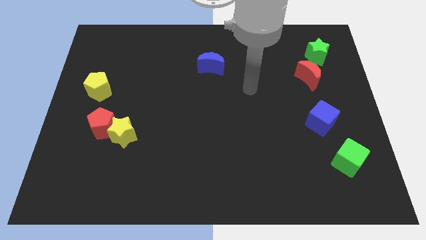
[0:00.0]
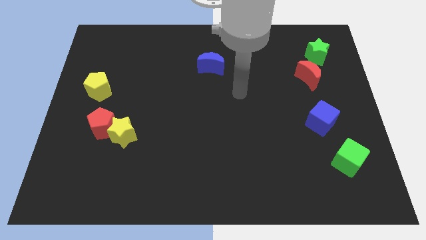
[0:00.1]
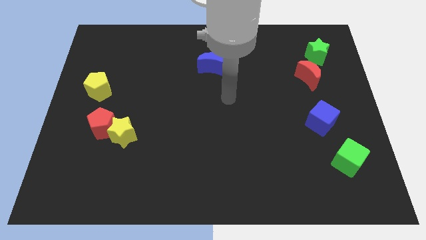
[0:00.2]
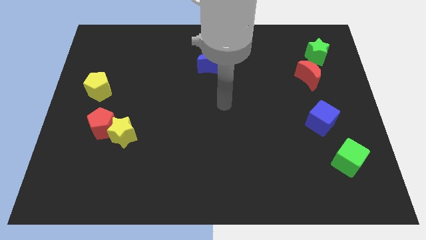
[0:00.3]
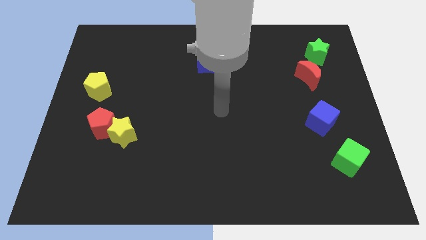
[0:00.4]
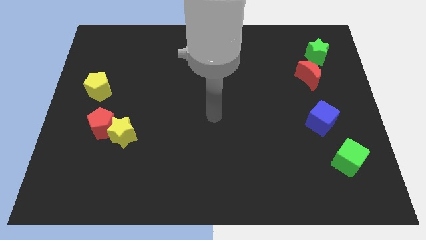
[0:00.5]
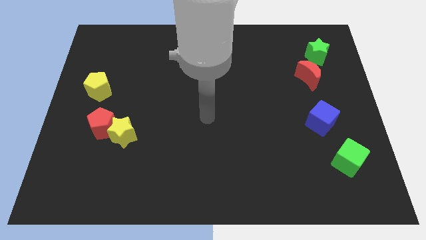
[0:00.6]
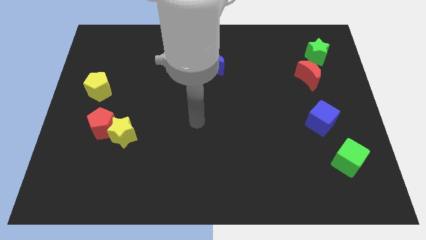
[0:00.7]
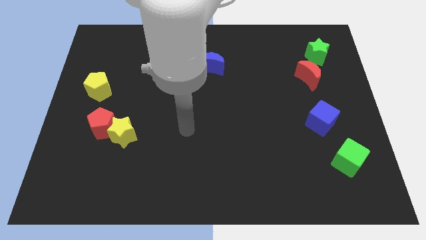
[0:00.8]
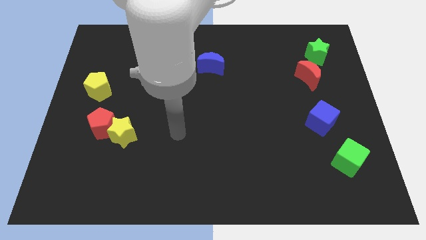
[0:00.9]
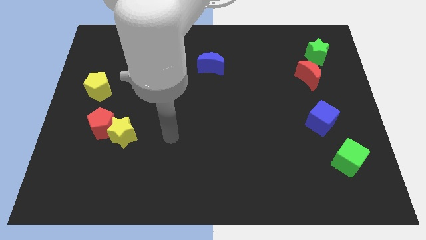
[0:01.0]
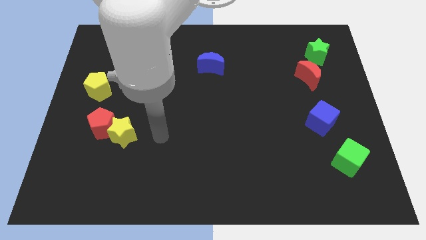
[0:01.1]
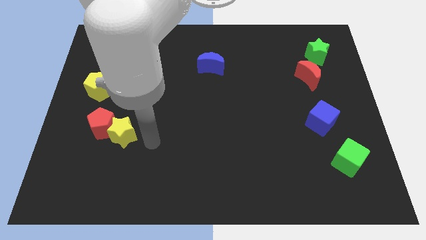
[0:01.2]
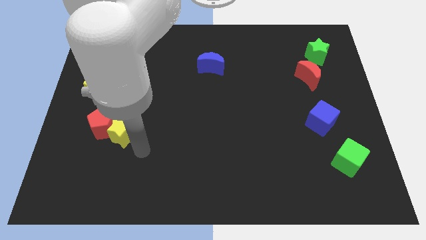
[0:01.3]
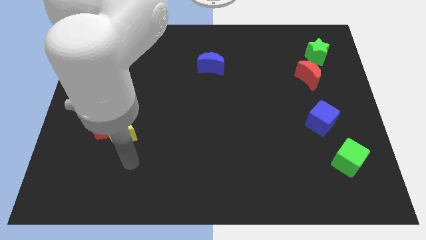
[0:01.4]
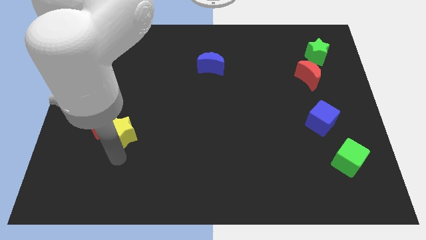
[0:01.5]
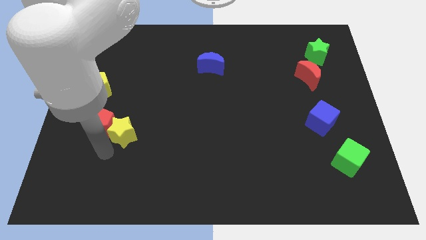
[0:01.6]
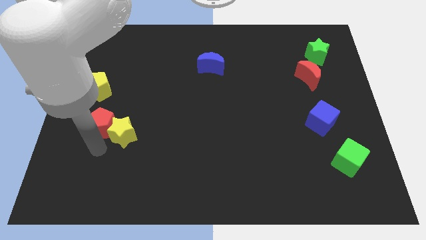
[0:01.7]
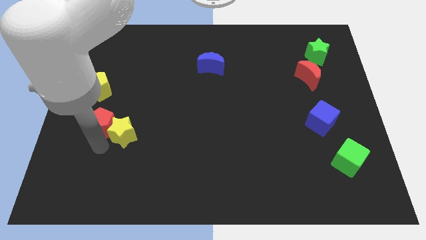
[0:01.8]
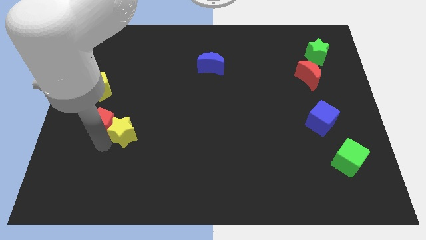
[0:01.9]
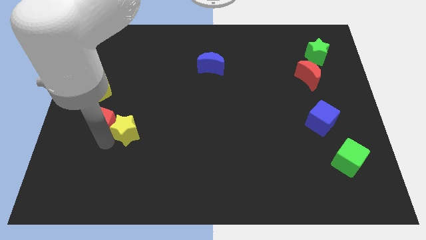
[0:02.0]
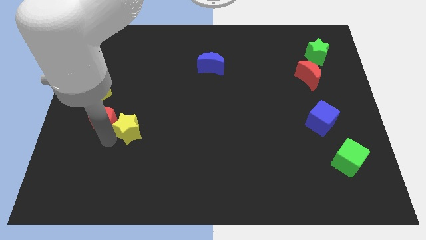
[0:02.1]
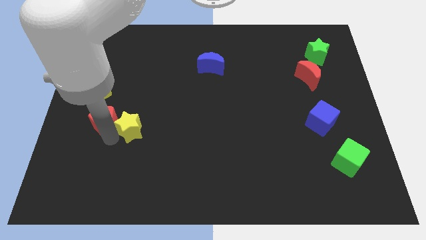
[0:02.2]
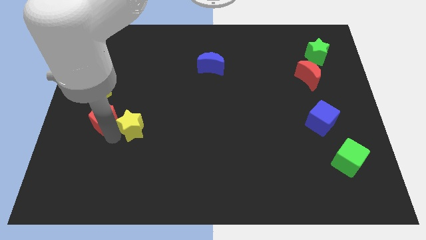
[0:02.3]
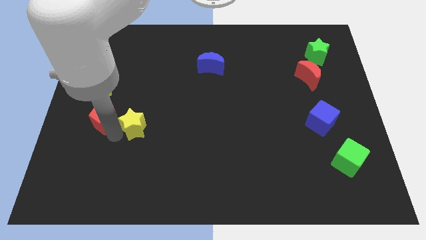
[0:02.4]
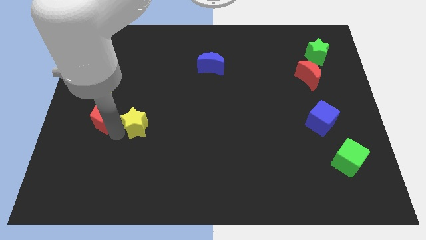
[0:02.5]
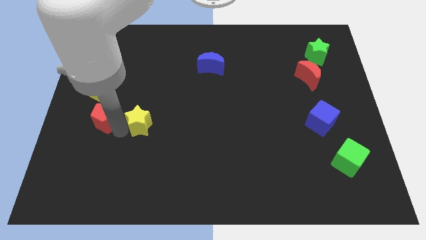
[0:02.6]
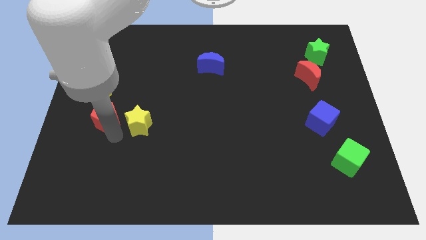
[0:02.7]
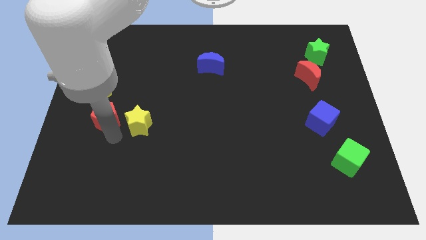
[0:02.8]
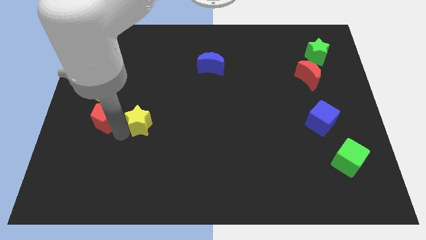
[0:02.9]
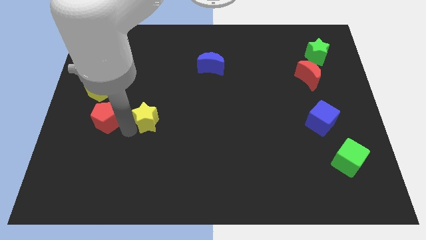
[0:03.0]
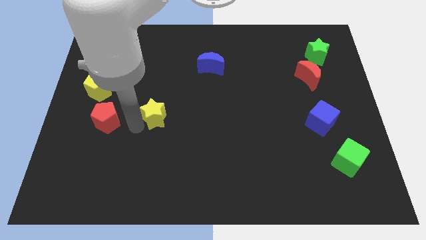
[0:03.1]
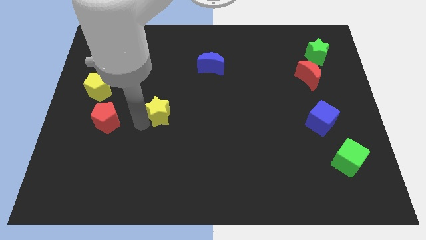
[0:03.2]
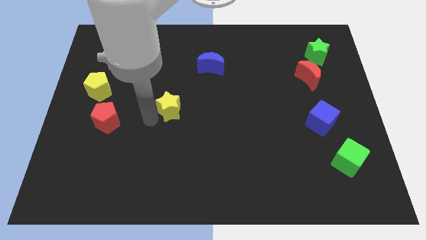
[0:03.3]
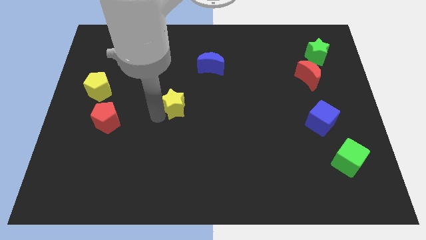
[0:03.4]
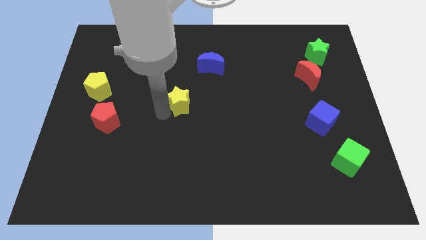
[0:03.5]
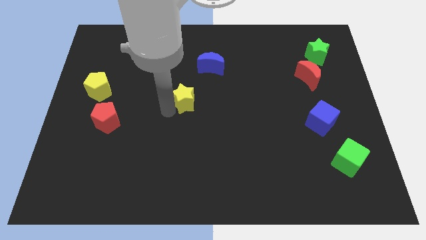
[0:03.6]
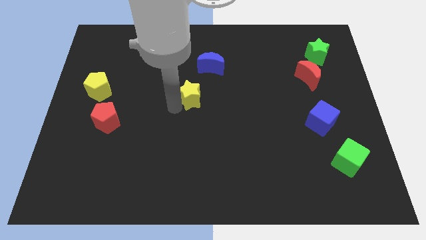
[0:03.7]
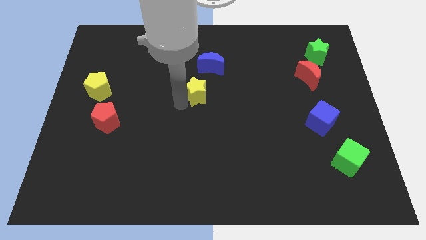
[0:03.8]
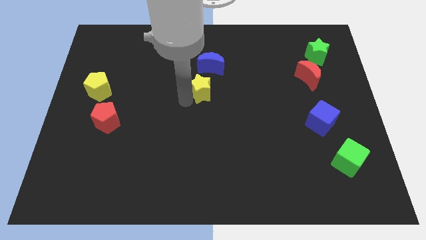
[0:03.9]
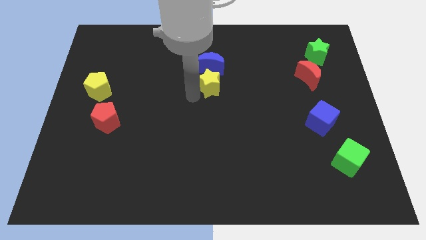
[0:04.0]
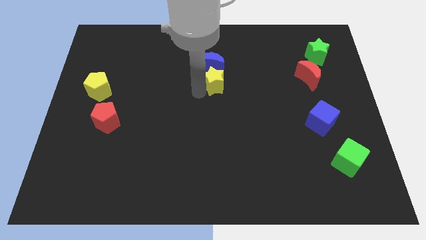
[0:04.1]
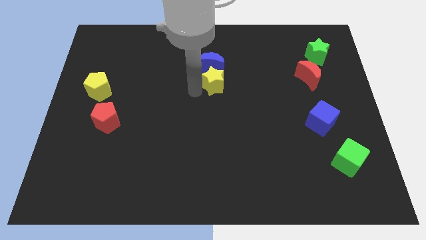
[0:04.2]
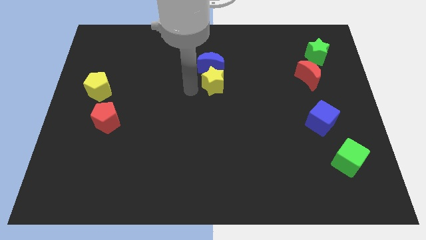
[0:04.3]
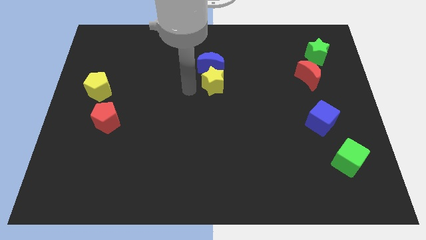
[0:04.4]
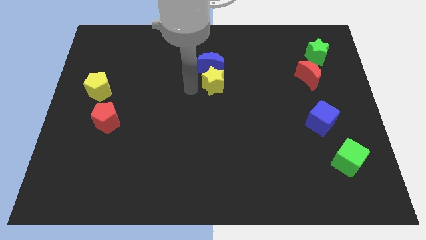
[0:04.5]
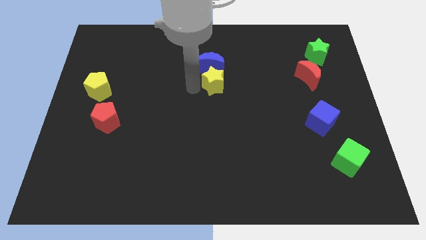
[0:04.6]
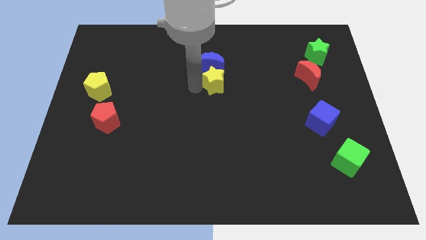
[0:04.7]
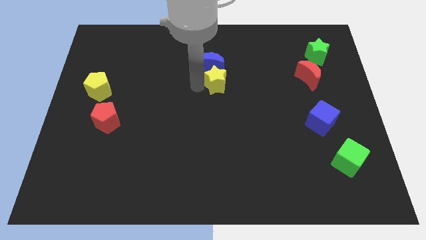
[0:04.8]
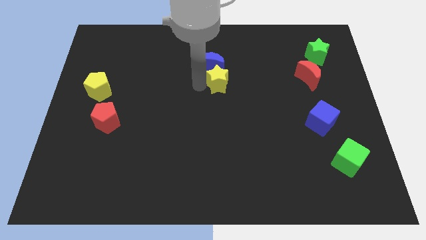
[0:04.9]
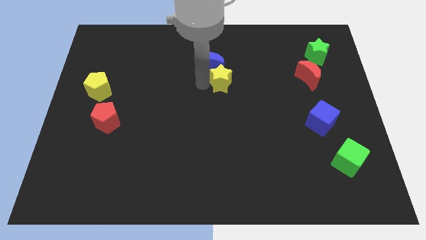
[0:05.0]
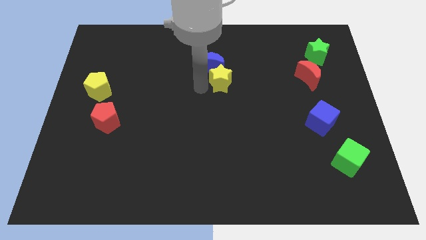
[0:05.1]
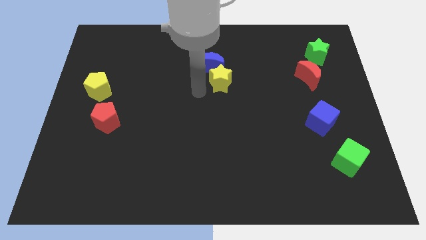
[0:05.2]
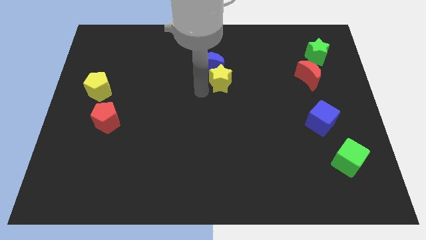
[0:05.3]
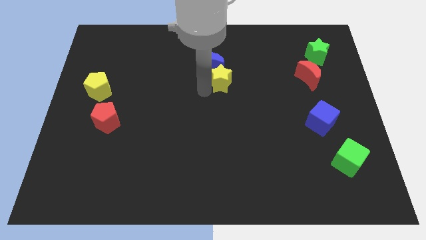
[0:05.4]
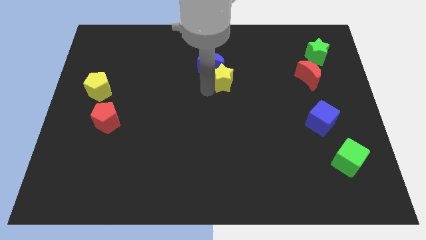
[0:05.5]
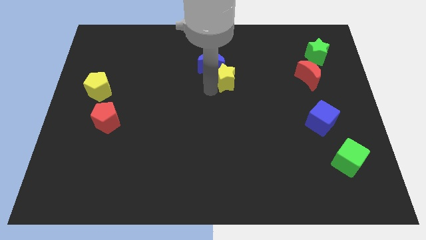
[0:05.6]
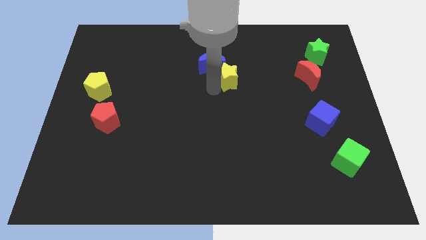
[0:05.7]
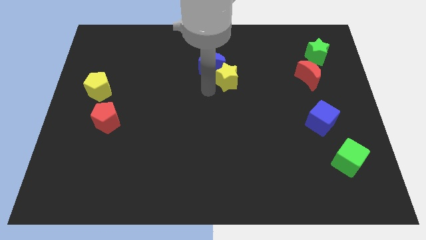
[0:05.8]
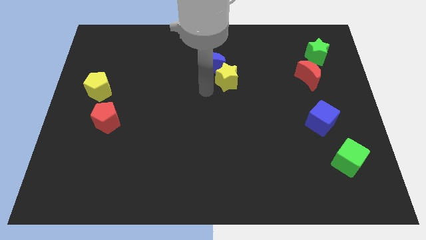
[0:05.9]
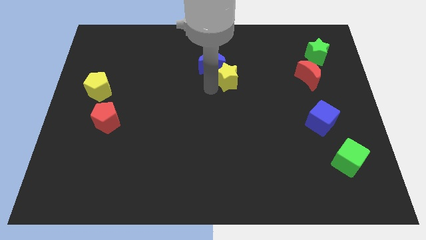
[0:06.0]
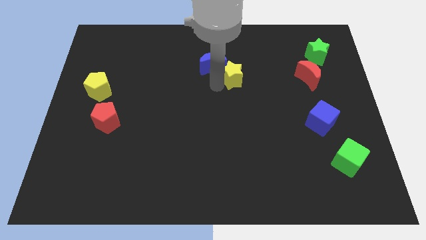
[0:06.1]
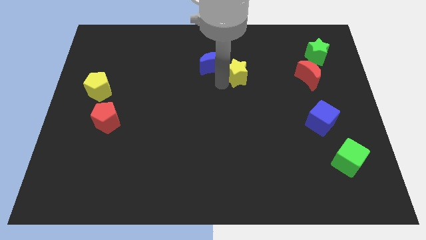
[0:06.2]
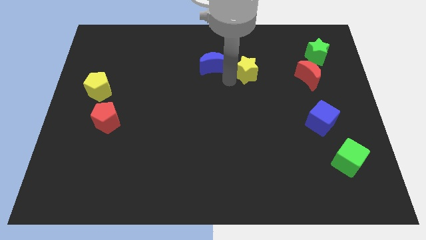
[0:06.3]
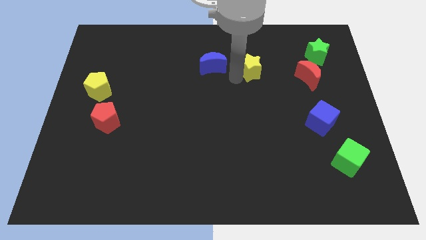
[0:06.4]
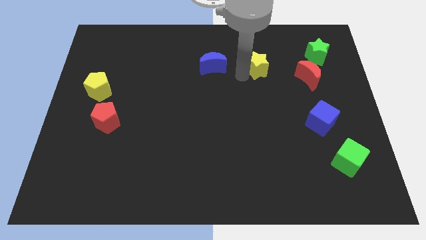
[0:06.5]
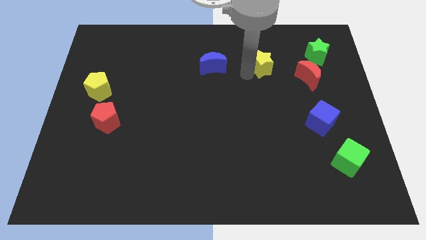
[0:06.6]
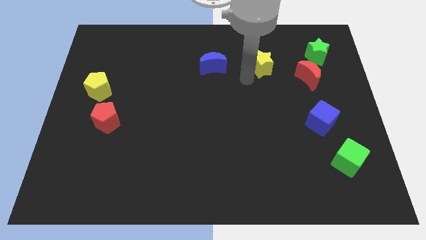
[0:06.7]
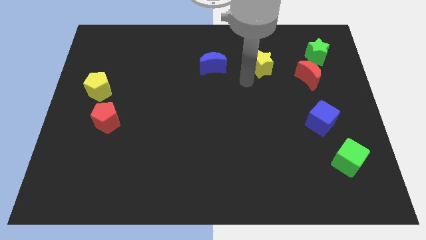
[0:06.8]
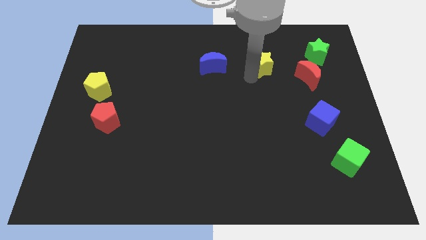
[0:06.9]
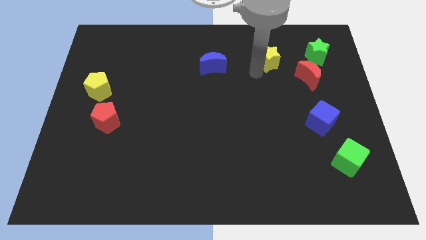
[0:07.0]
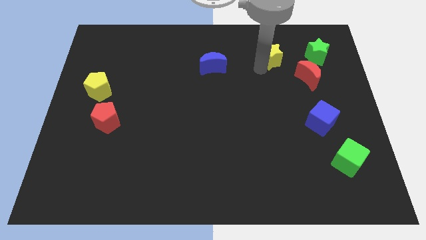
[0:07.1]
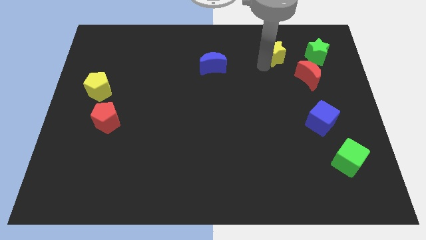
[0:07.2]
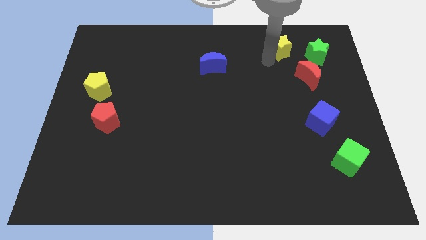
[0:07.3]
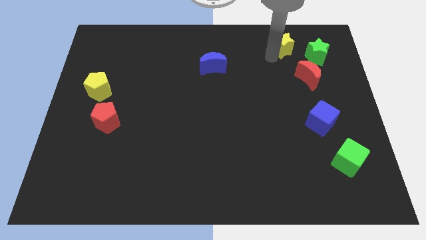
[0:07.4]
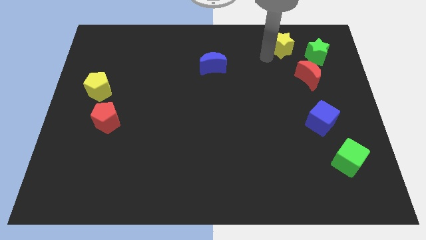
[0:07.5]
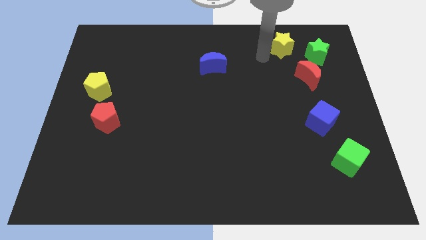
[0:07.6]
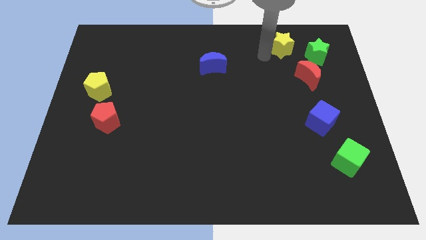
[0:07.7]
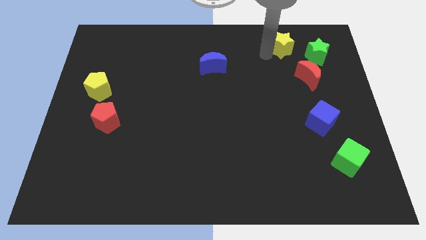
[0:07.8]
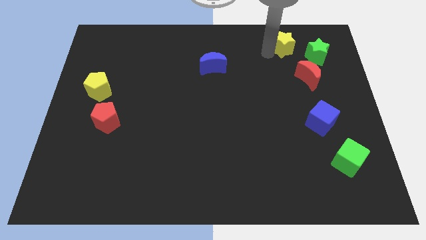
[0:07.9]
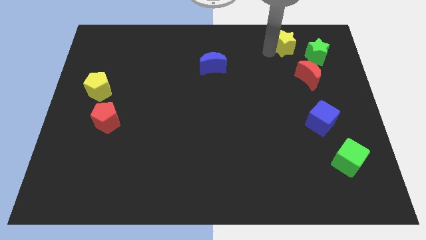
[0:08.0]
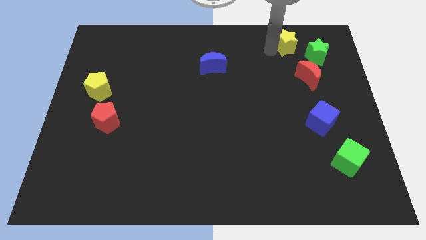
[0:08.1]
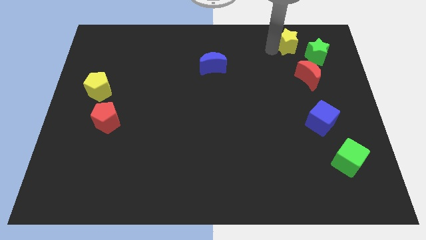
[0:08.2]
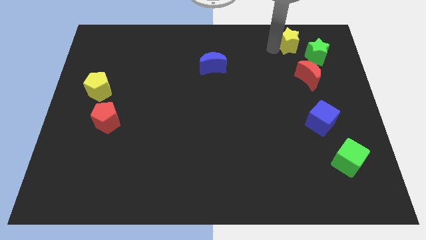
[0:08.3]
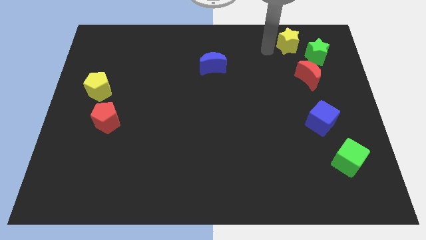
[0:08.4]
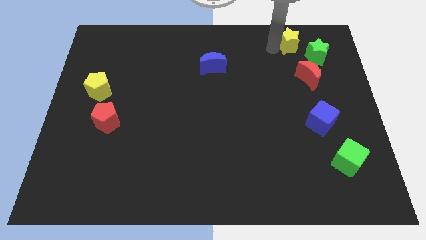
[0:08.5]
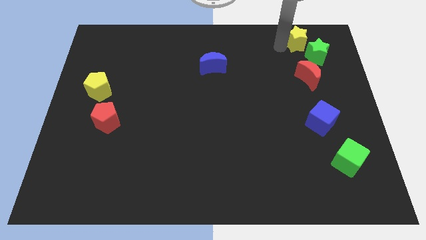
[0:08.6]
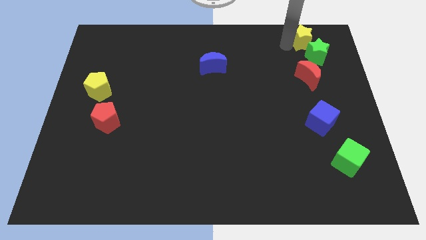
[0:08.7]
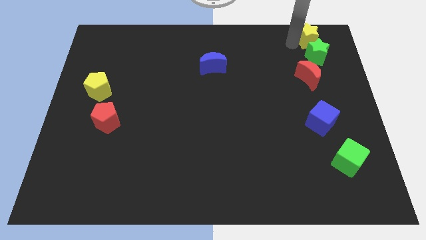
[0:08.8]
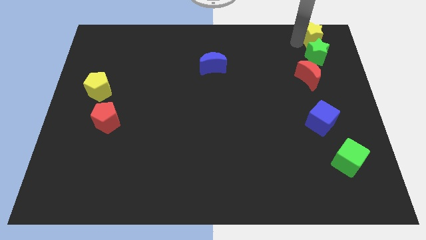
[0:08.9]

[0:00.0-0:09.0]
put the yellow star to the upper right corner
